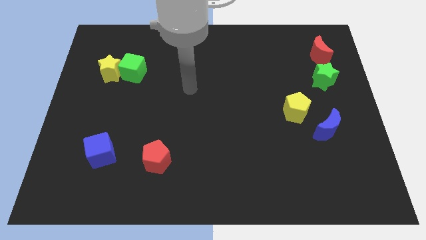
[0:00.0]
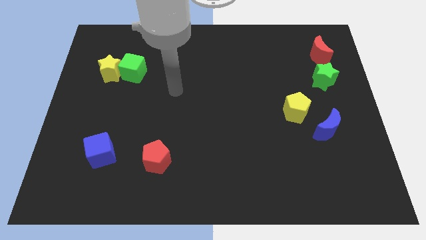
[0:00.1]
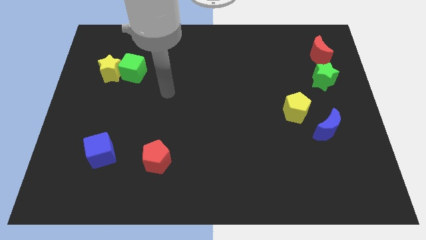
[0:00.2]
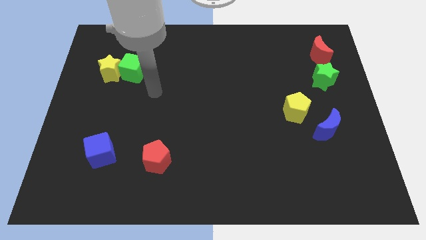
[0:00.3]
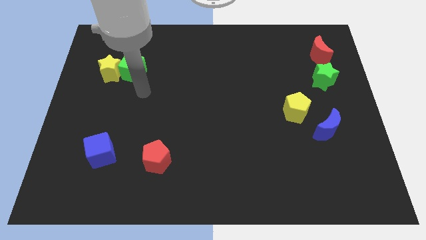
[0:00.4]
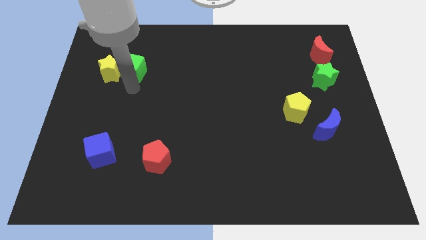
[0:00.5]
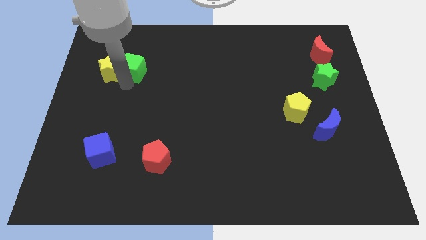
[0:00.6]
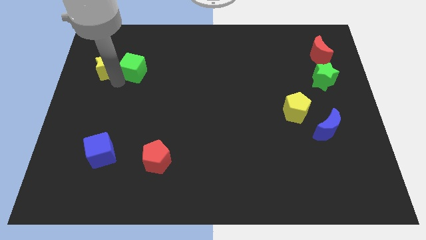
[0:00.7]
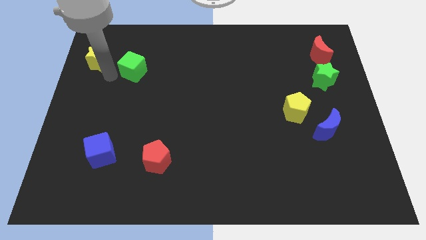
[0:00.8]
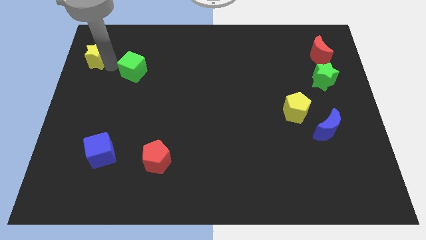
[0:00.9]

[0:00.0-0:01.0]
separate the green cube from the yellow star

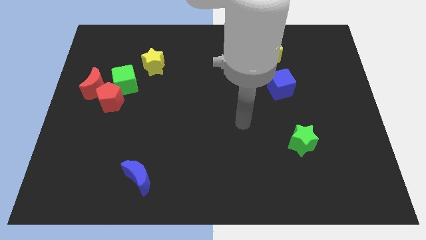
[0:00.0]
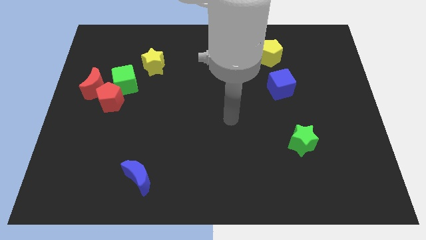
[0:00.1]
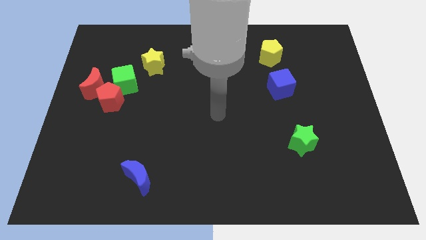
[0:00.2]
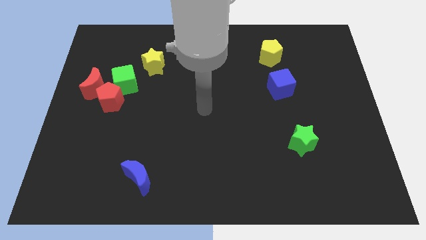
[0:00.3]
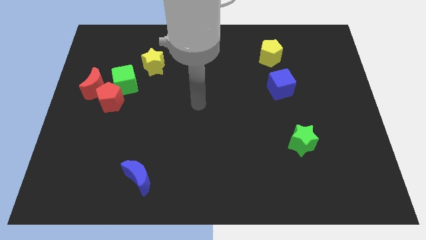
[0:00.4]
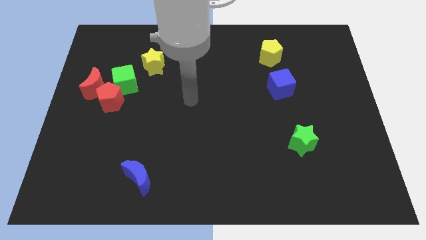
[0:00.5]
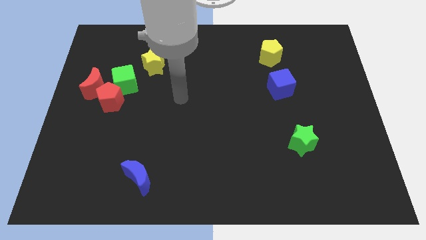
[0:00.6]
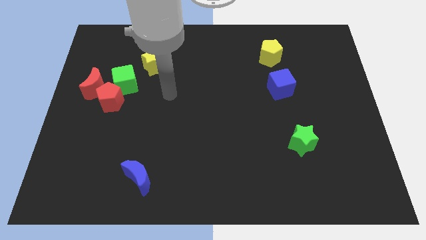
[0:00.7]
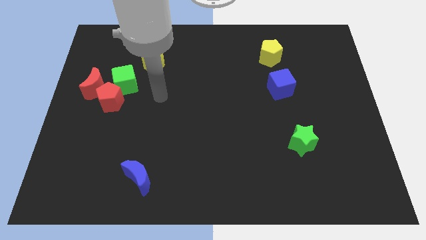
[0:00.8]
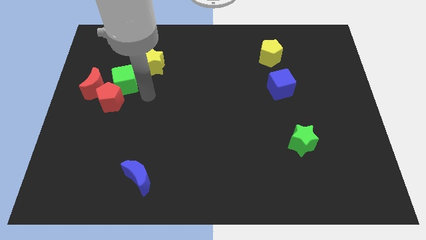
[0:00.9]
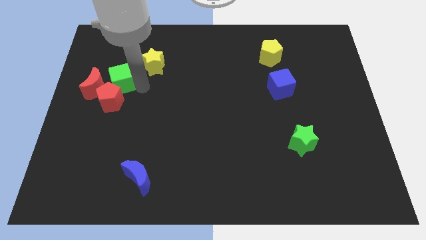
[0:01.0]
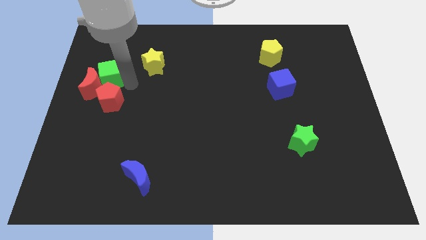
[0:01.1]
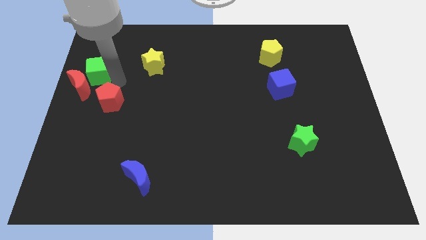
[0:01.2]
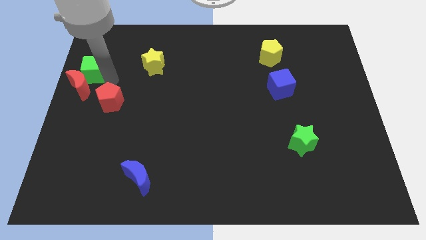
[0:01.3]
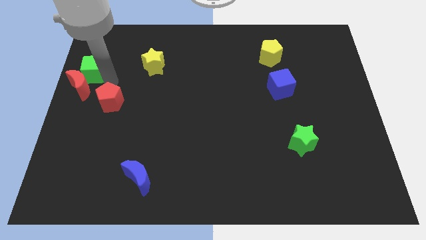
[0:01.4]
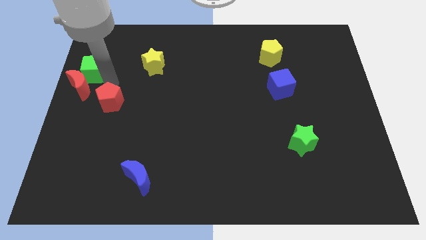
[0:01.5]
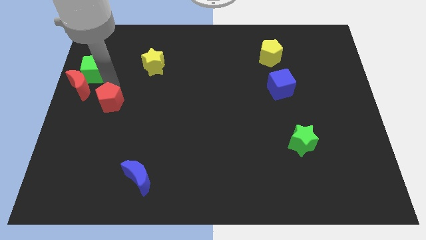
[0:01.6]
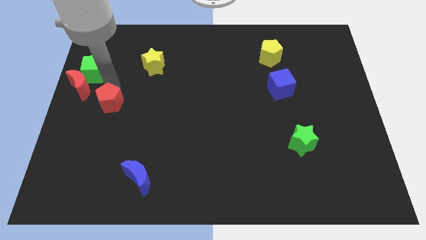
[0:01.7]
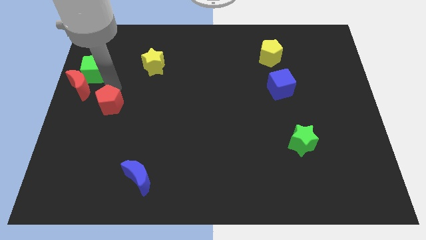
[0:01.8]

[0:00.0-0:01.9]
pull the red pentagon apart from the red moon and green cube

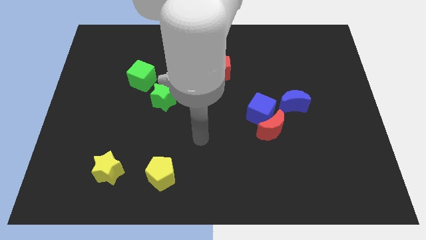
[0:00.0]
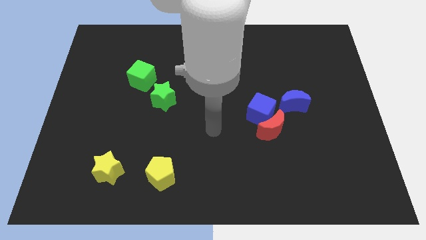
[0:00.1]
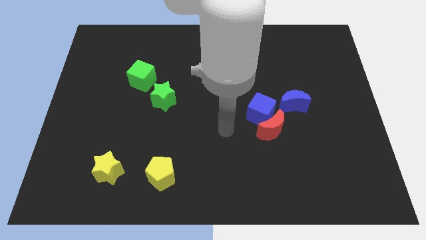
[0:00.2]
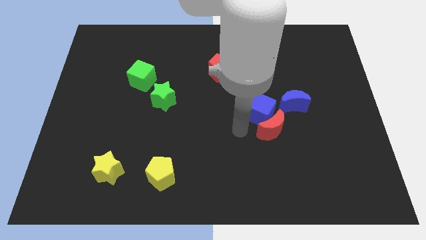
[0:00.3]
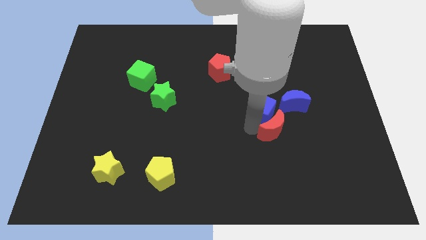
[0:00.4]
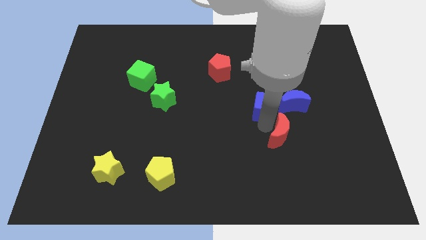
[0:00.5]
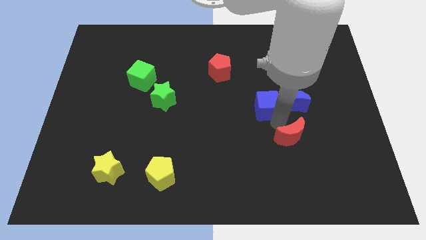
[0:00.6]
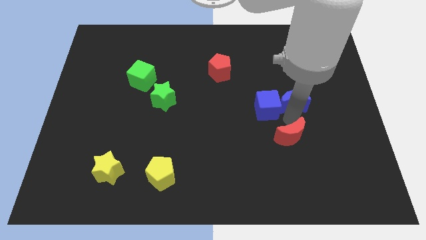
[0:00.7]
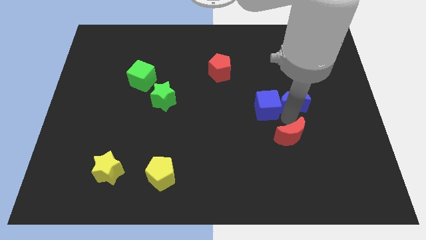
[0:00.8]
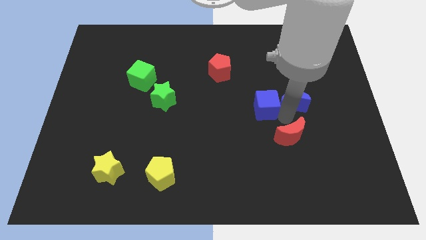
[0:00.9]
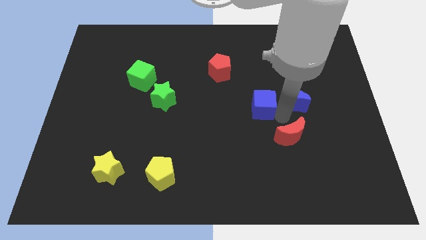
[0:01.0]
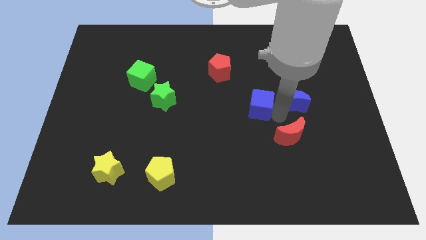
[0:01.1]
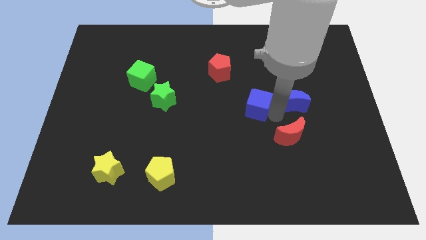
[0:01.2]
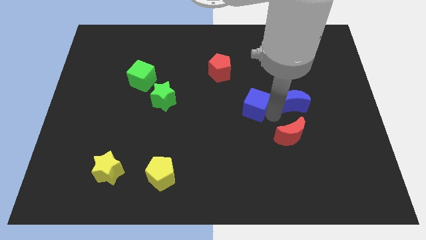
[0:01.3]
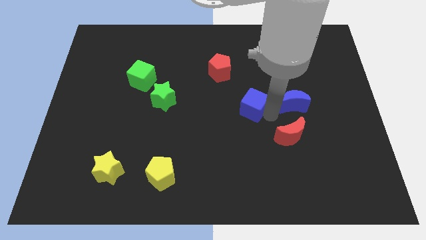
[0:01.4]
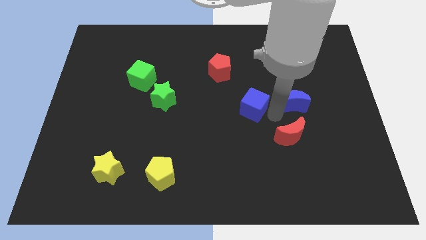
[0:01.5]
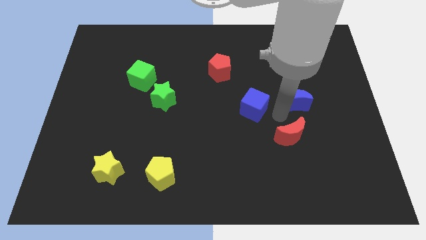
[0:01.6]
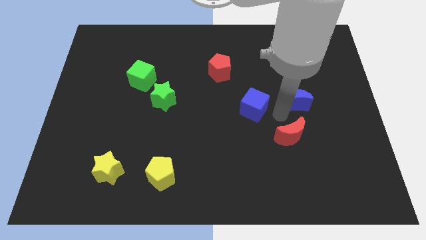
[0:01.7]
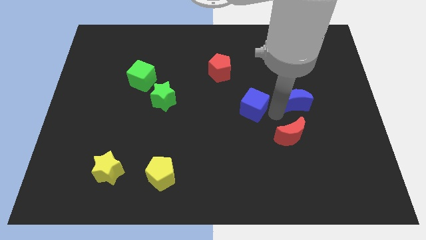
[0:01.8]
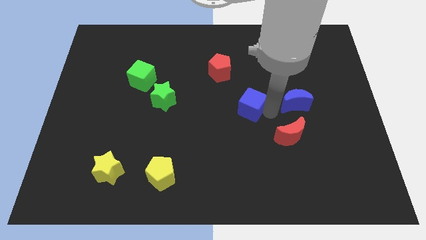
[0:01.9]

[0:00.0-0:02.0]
move the blue cube away from the red moon and blue moon

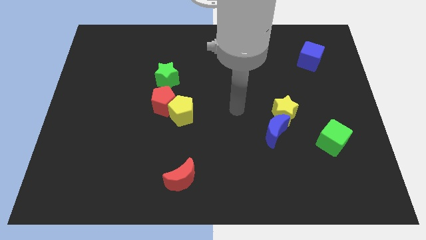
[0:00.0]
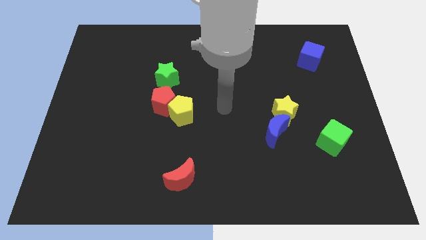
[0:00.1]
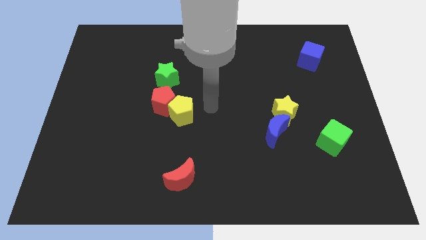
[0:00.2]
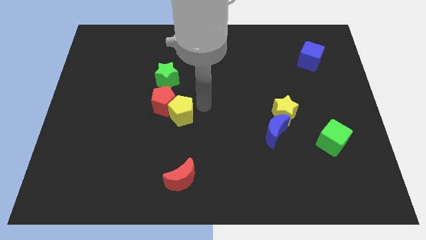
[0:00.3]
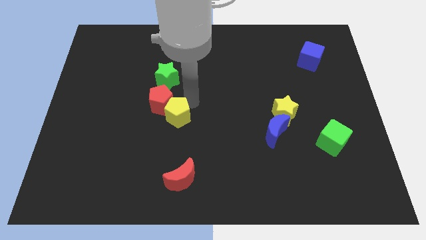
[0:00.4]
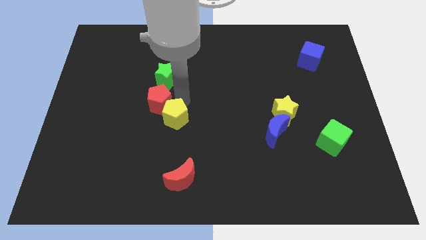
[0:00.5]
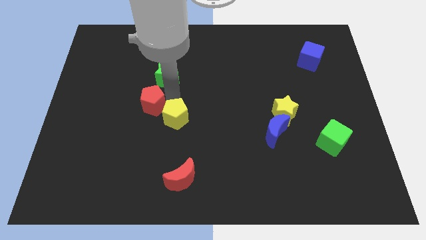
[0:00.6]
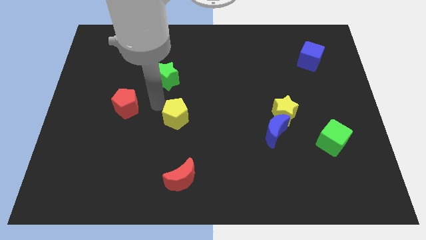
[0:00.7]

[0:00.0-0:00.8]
pull the yellow pentagon apart from the red pentagon

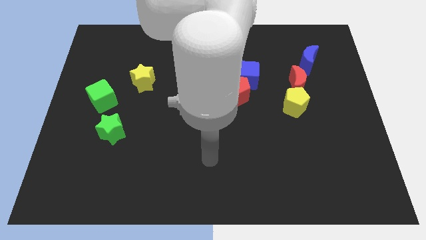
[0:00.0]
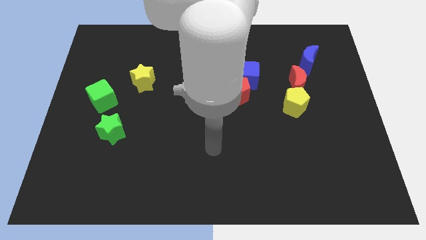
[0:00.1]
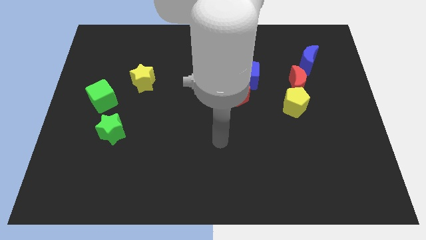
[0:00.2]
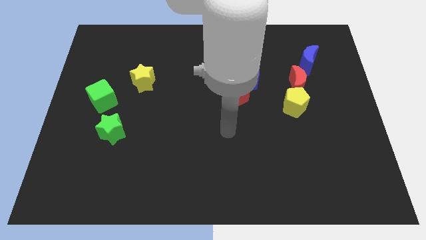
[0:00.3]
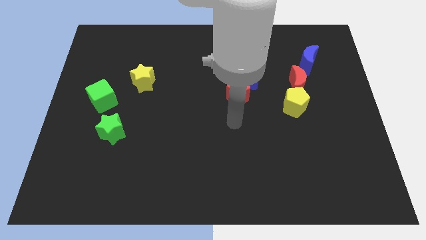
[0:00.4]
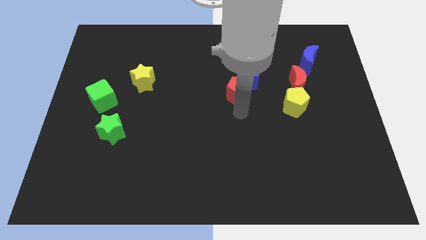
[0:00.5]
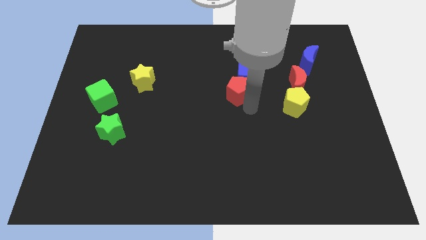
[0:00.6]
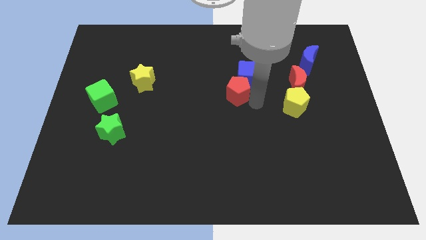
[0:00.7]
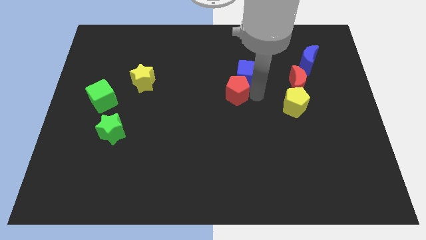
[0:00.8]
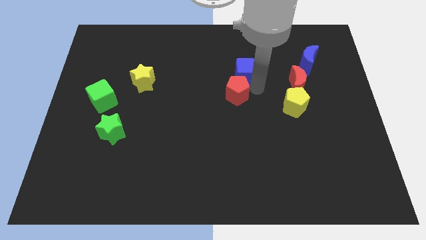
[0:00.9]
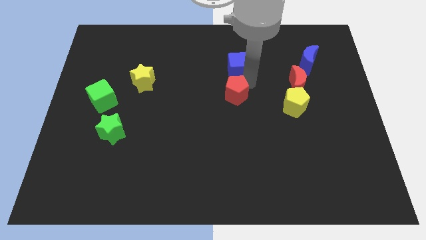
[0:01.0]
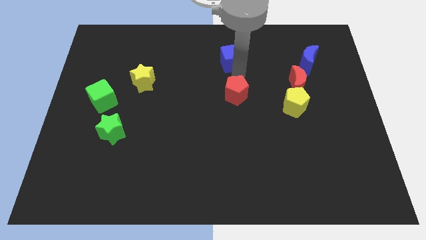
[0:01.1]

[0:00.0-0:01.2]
move the red pentagon away from the blue cube

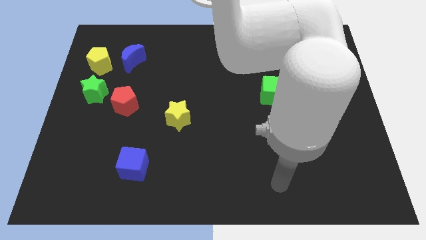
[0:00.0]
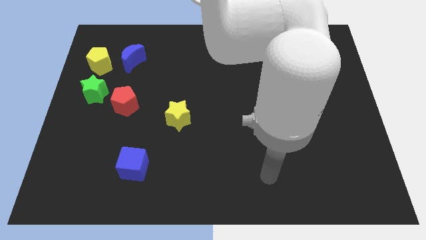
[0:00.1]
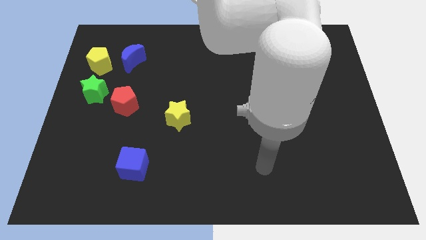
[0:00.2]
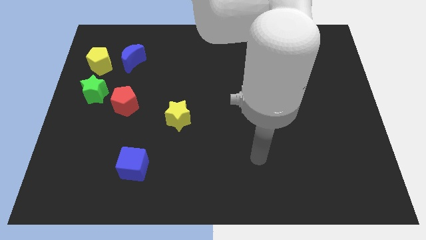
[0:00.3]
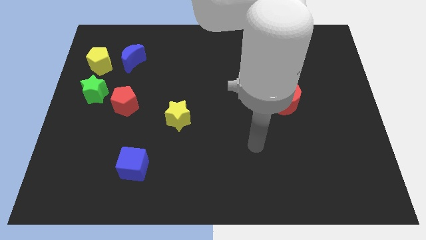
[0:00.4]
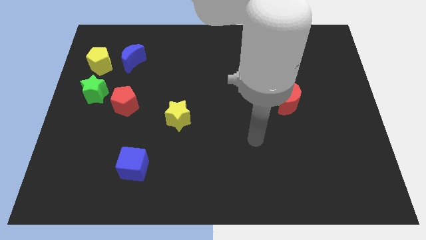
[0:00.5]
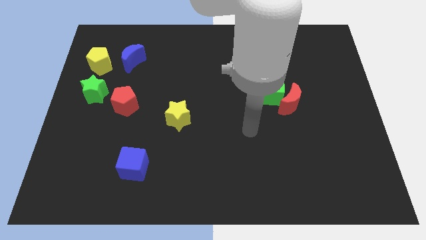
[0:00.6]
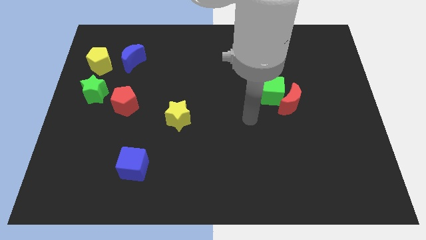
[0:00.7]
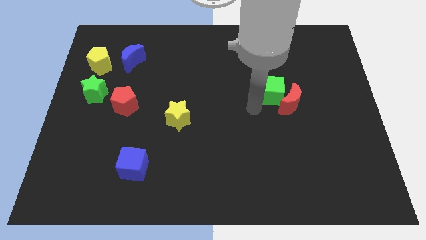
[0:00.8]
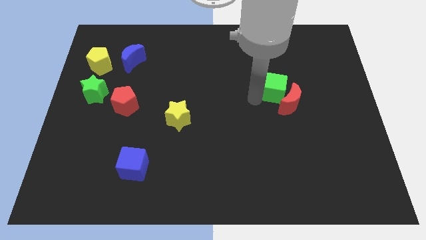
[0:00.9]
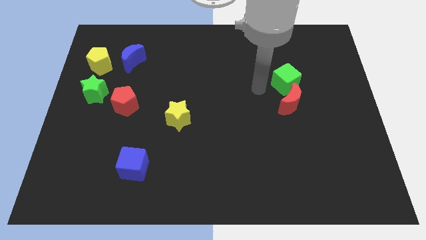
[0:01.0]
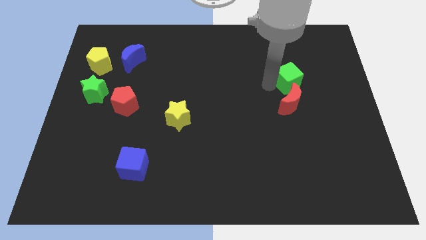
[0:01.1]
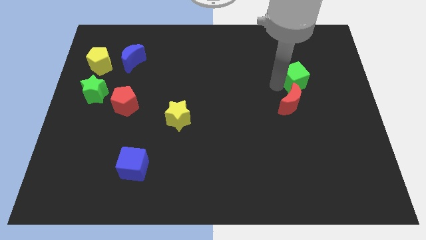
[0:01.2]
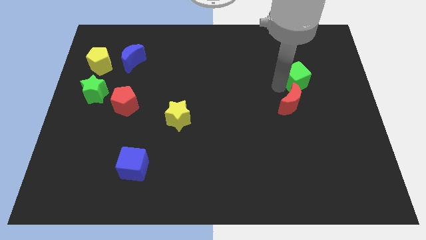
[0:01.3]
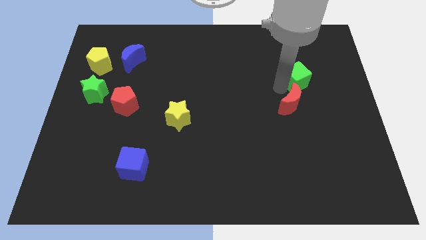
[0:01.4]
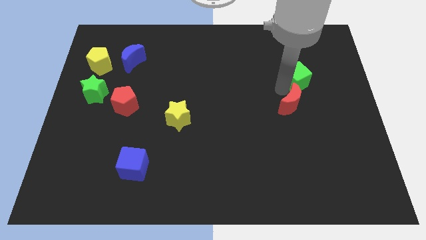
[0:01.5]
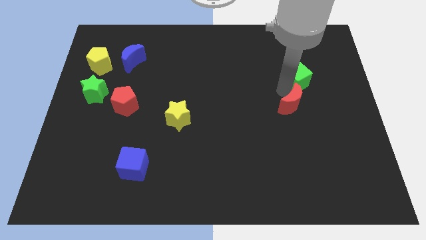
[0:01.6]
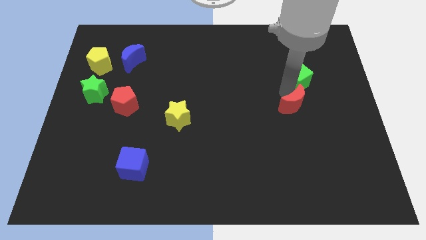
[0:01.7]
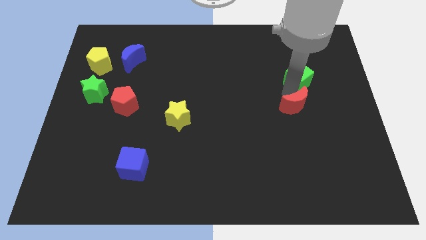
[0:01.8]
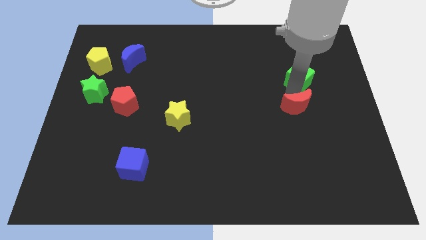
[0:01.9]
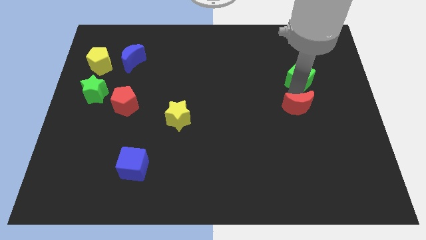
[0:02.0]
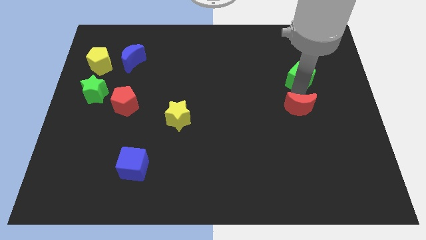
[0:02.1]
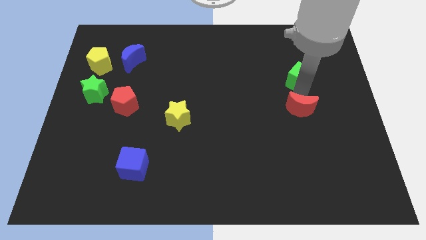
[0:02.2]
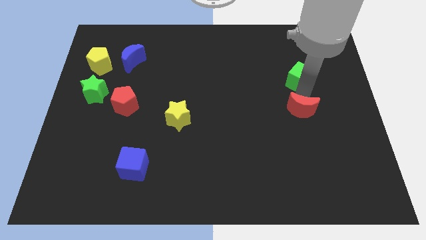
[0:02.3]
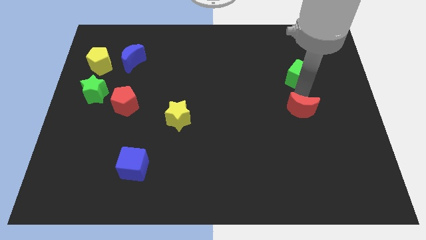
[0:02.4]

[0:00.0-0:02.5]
pull the red moon apart from the green cube
